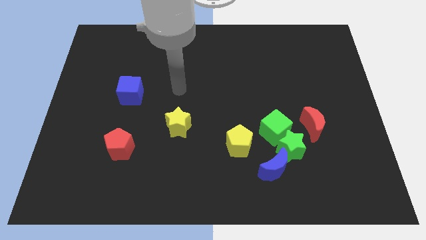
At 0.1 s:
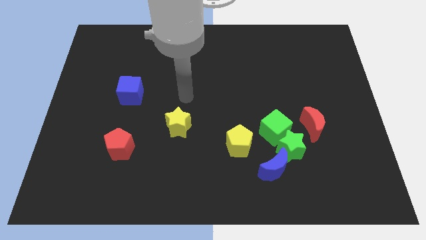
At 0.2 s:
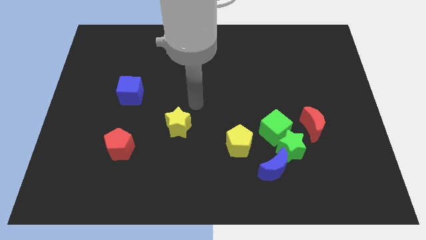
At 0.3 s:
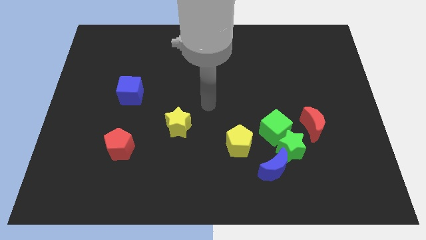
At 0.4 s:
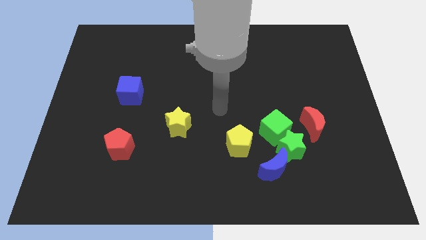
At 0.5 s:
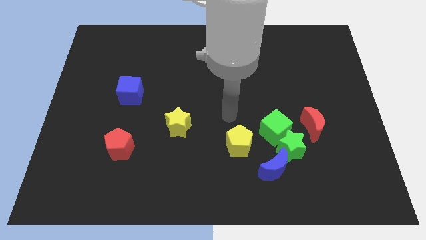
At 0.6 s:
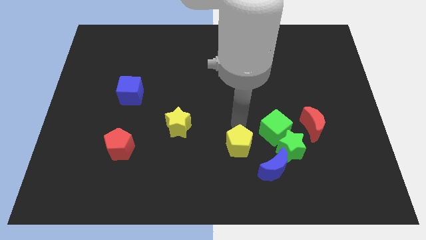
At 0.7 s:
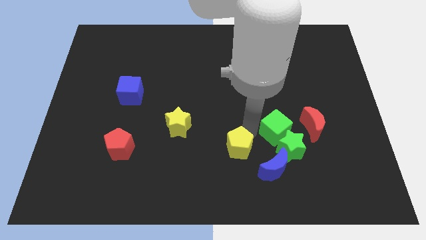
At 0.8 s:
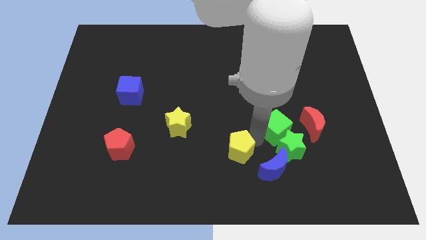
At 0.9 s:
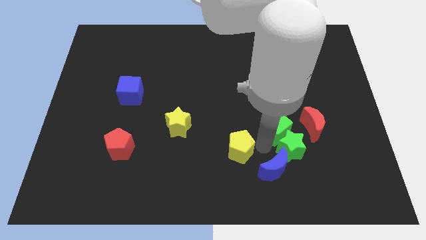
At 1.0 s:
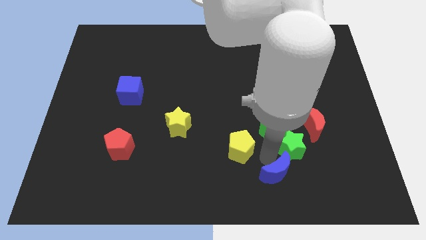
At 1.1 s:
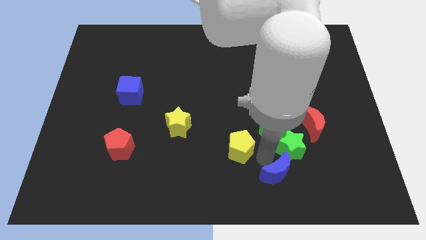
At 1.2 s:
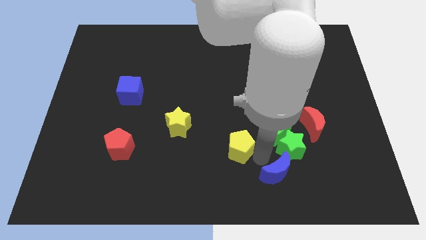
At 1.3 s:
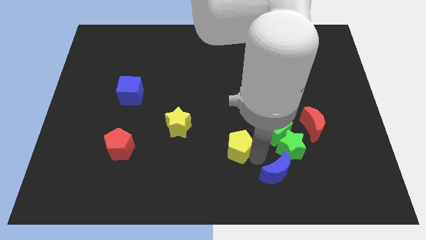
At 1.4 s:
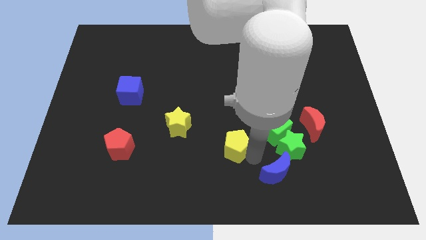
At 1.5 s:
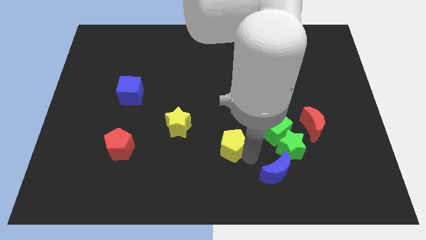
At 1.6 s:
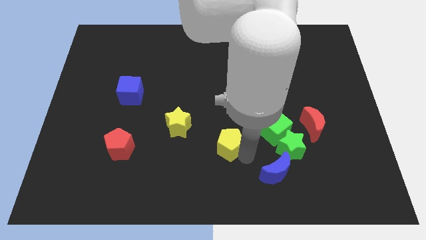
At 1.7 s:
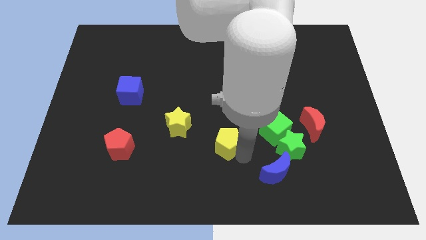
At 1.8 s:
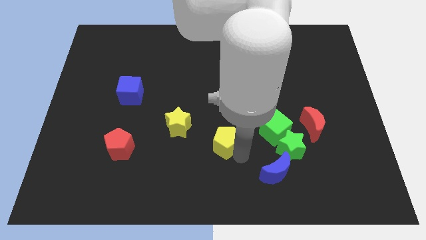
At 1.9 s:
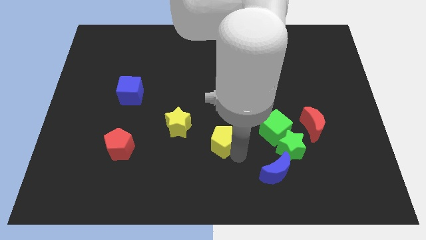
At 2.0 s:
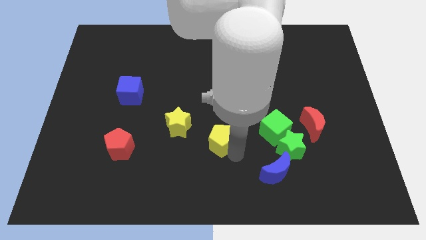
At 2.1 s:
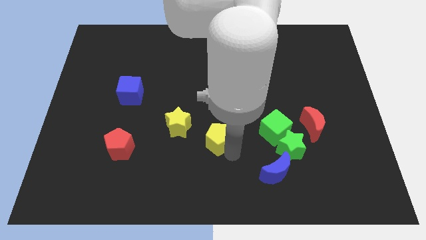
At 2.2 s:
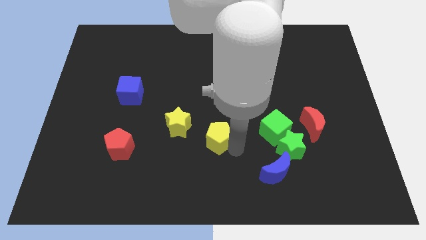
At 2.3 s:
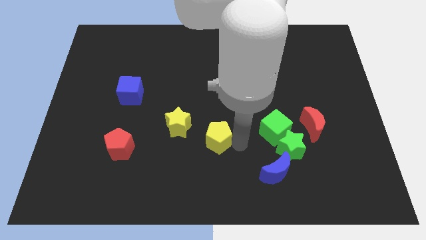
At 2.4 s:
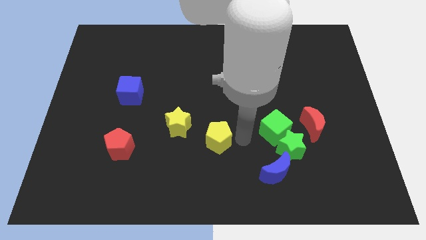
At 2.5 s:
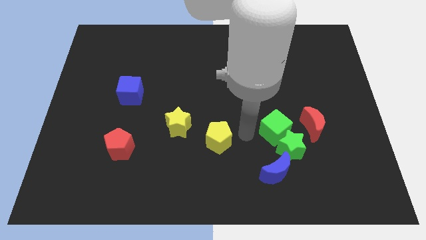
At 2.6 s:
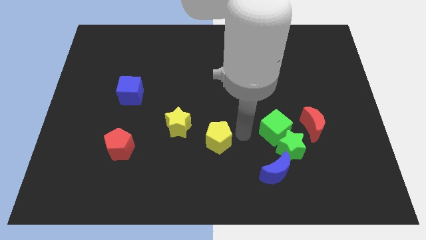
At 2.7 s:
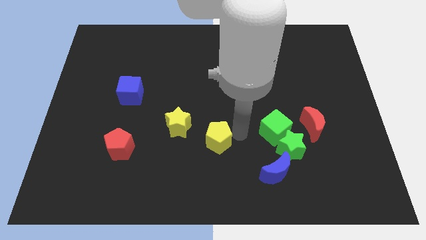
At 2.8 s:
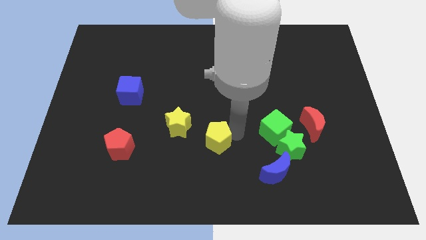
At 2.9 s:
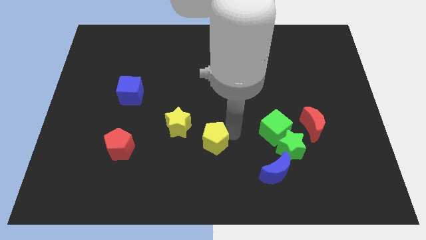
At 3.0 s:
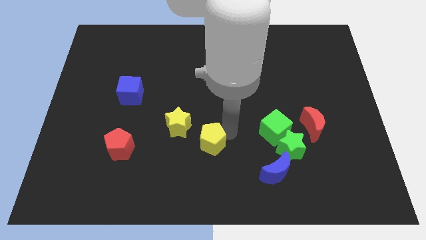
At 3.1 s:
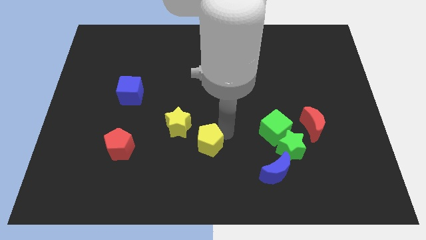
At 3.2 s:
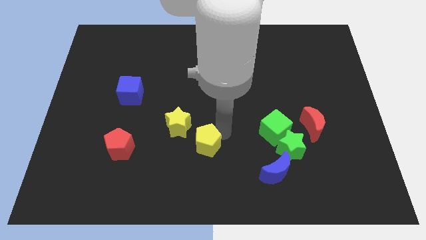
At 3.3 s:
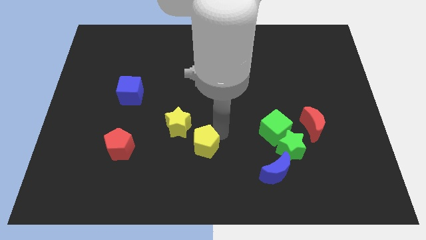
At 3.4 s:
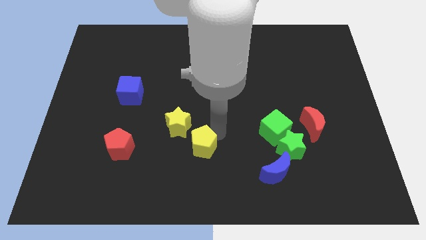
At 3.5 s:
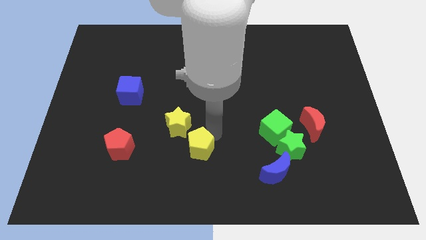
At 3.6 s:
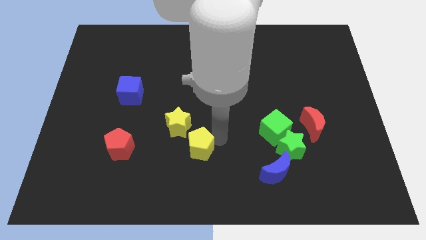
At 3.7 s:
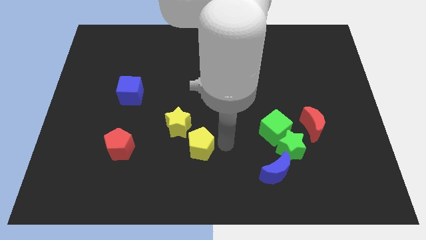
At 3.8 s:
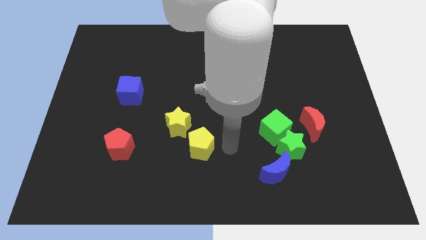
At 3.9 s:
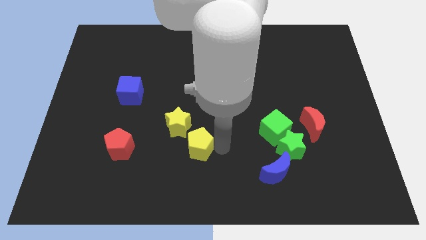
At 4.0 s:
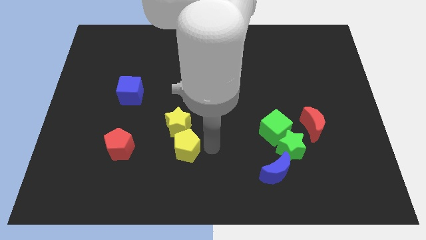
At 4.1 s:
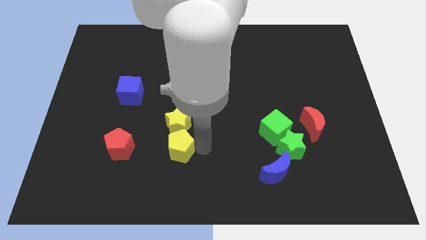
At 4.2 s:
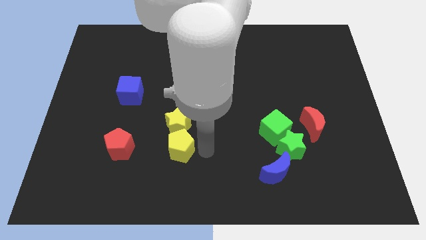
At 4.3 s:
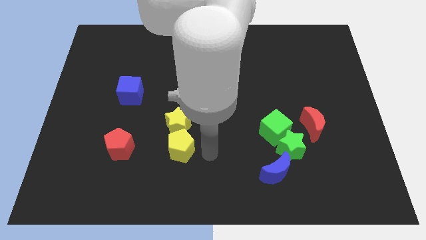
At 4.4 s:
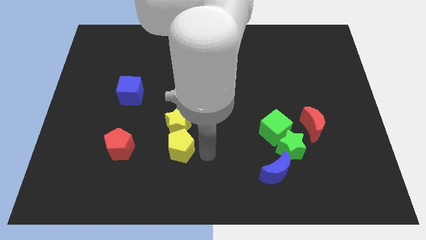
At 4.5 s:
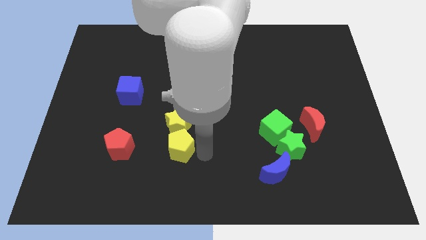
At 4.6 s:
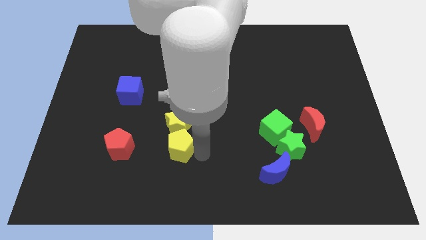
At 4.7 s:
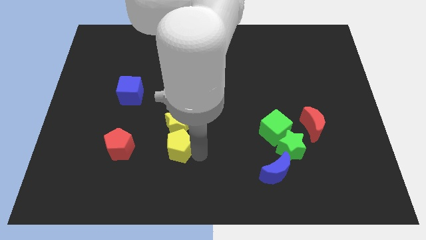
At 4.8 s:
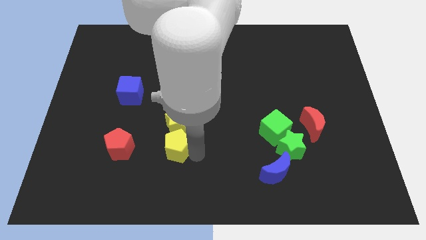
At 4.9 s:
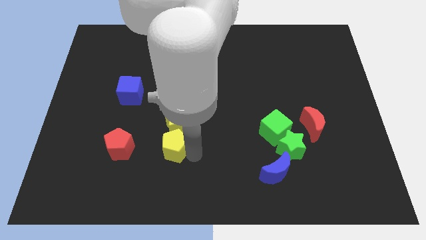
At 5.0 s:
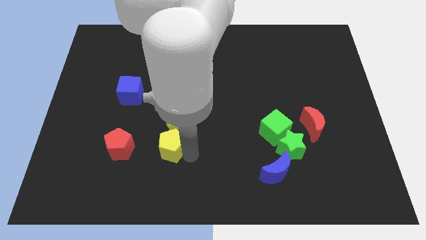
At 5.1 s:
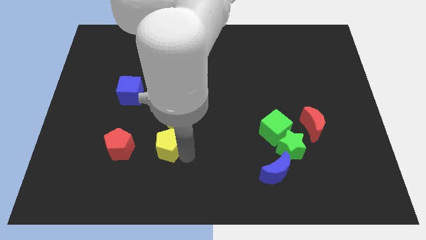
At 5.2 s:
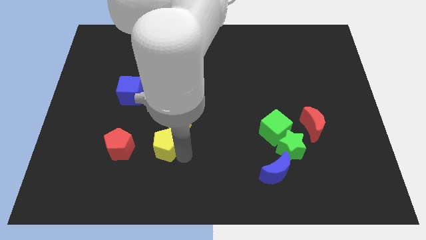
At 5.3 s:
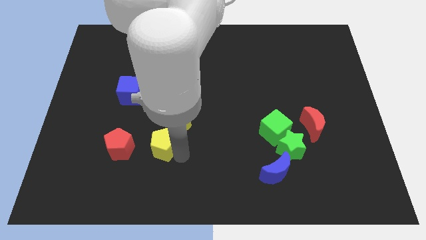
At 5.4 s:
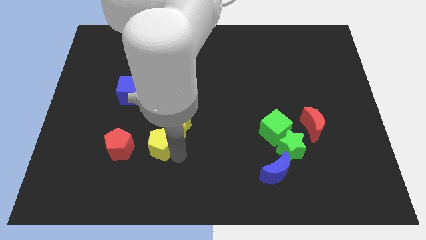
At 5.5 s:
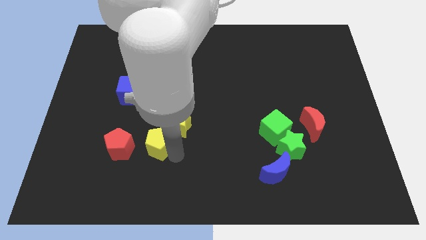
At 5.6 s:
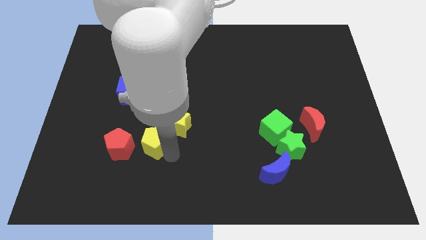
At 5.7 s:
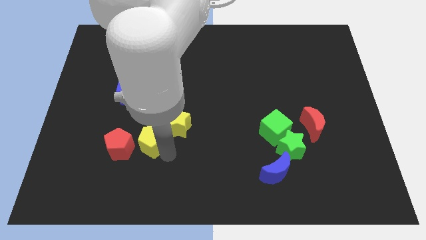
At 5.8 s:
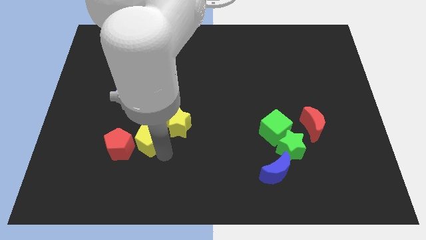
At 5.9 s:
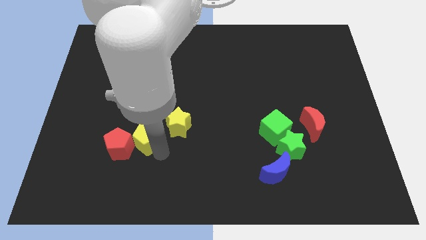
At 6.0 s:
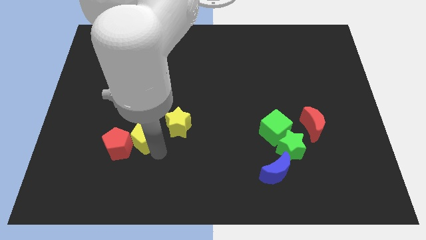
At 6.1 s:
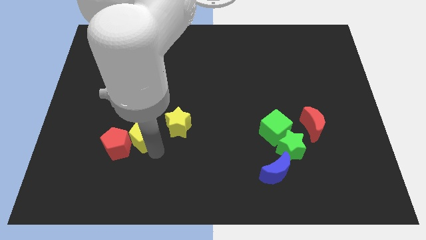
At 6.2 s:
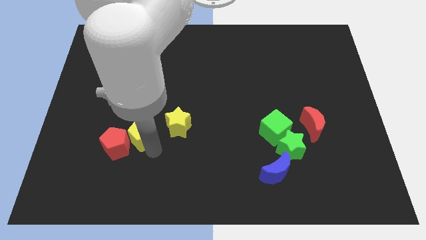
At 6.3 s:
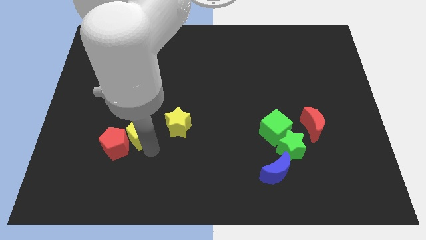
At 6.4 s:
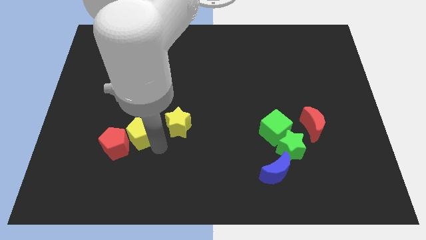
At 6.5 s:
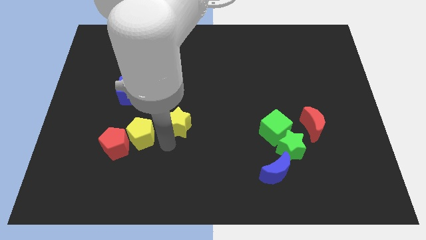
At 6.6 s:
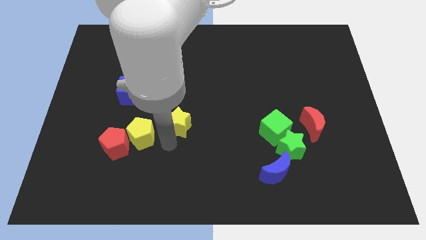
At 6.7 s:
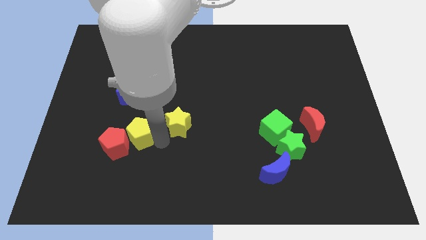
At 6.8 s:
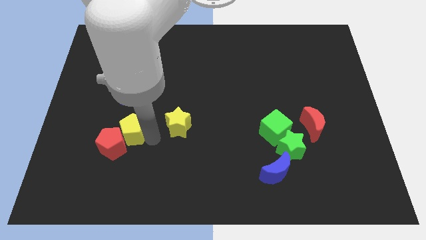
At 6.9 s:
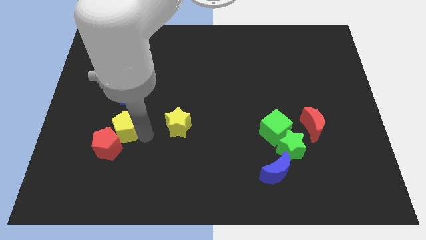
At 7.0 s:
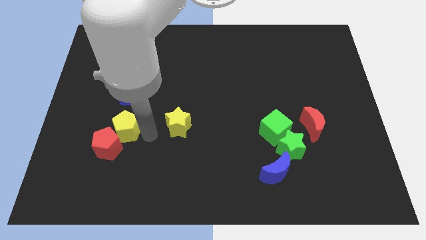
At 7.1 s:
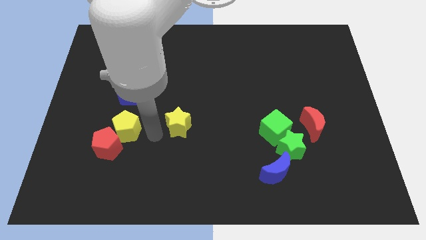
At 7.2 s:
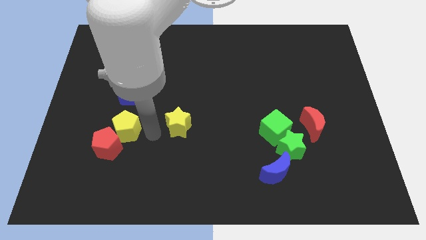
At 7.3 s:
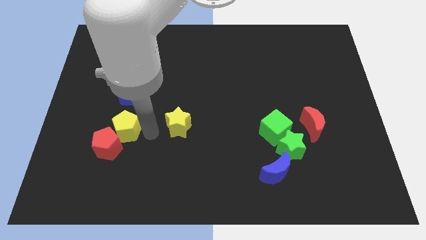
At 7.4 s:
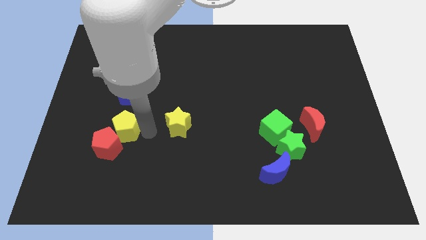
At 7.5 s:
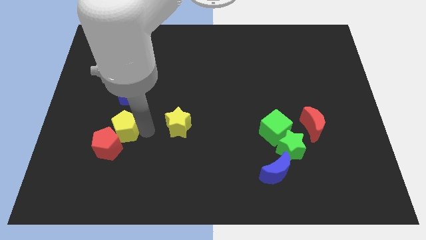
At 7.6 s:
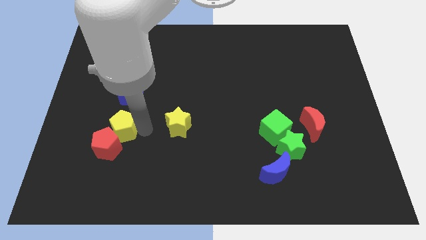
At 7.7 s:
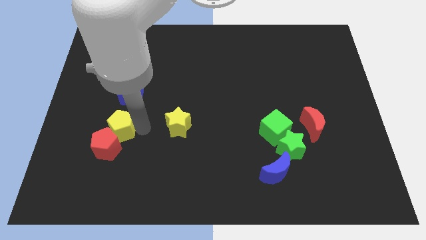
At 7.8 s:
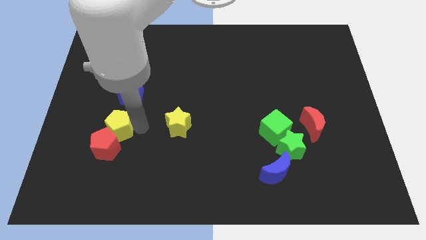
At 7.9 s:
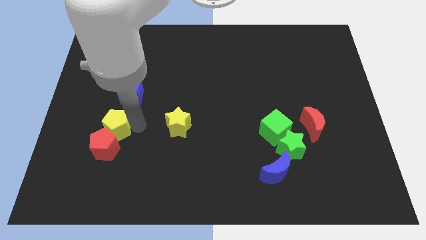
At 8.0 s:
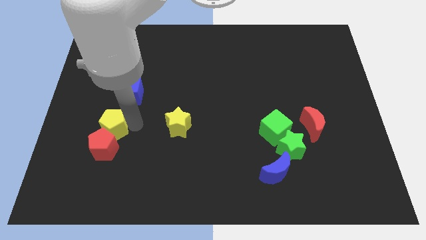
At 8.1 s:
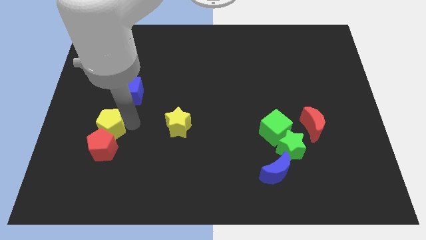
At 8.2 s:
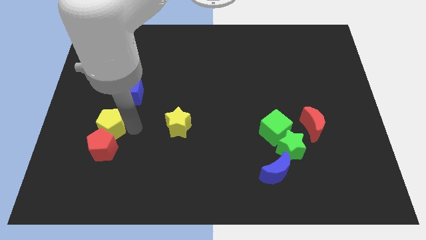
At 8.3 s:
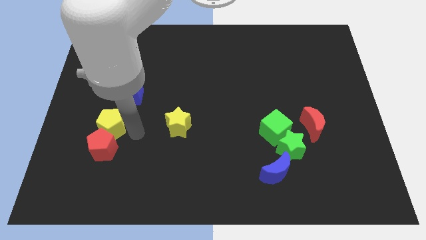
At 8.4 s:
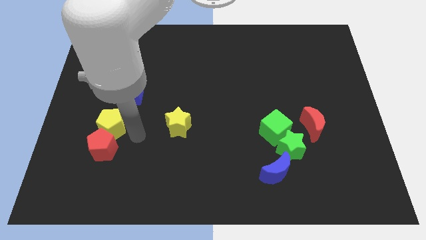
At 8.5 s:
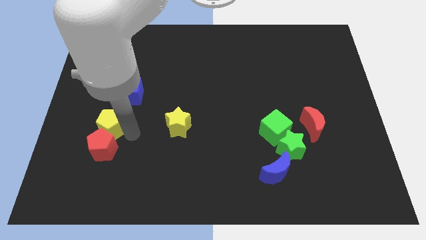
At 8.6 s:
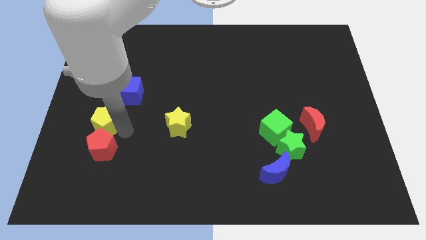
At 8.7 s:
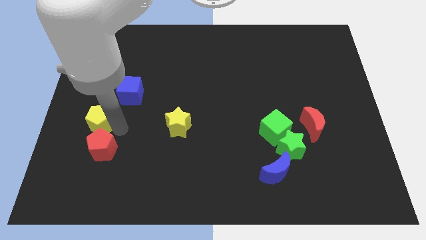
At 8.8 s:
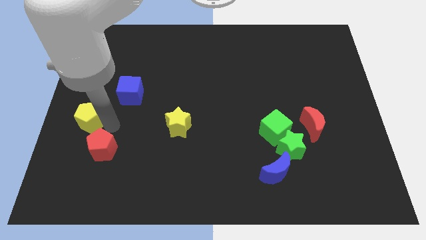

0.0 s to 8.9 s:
push the yellow pentagon to the center left
